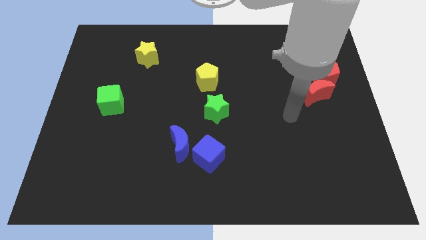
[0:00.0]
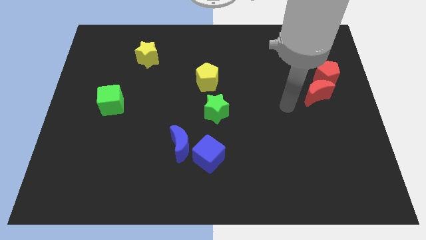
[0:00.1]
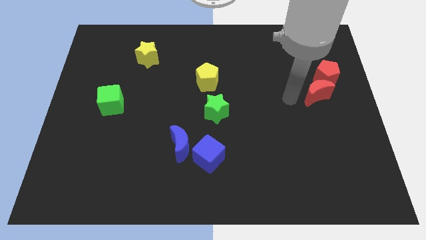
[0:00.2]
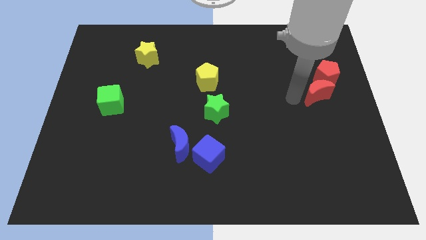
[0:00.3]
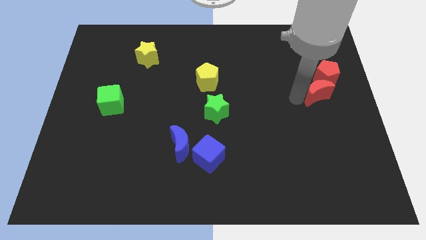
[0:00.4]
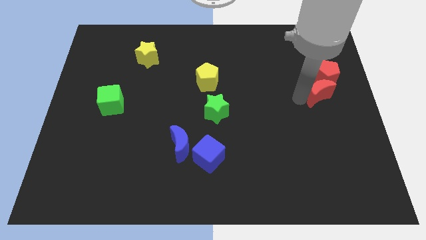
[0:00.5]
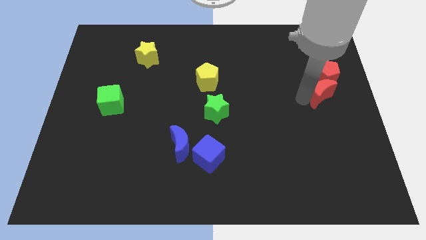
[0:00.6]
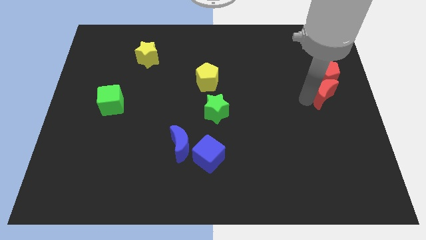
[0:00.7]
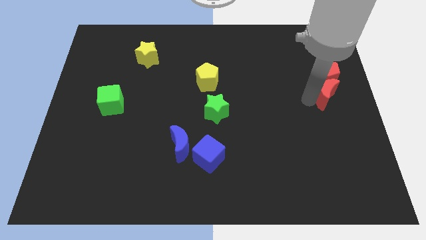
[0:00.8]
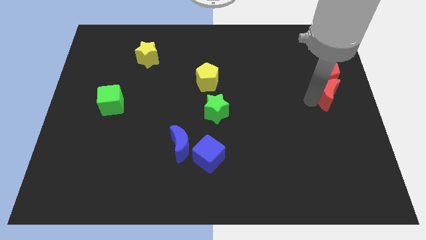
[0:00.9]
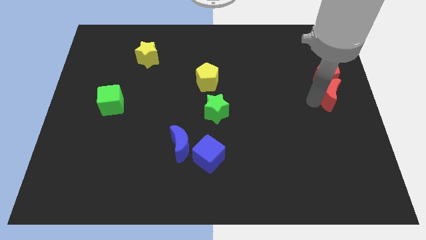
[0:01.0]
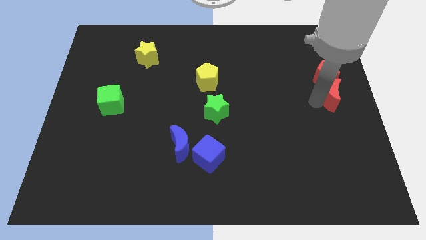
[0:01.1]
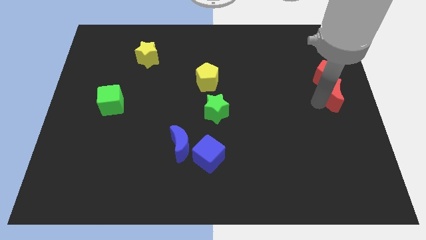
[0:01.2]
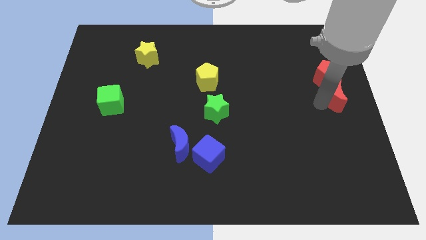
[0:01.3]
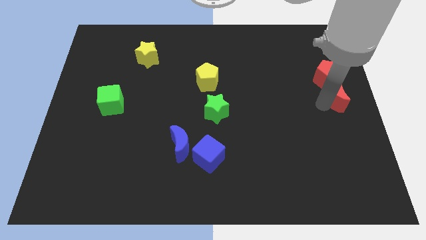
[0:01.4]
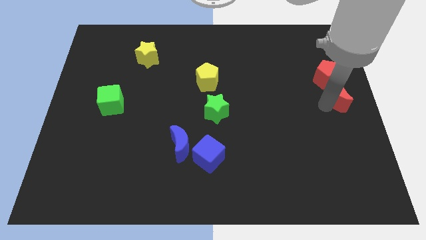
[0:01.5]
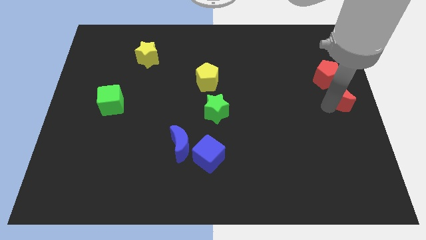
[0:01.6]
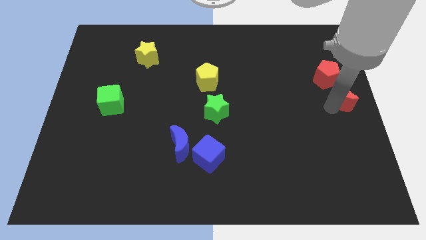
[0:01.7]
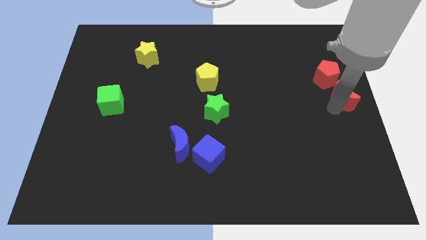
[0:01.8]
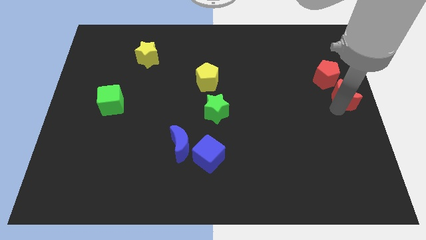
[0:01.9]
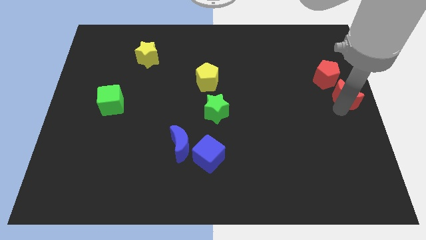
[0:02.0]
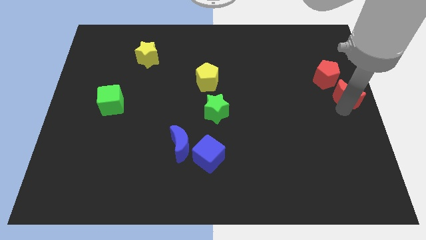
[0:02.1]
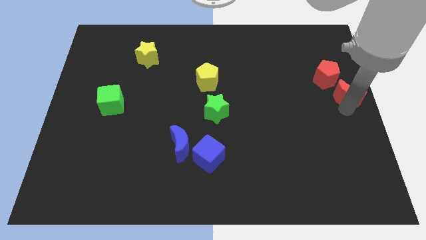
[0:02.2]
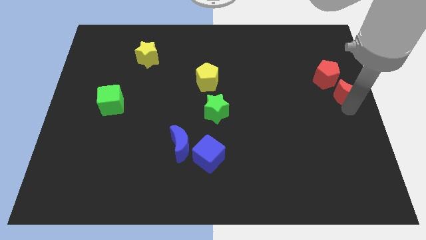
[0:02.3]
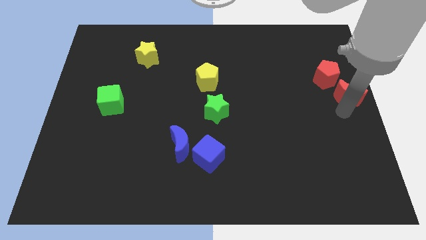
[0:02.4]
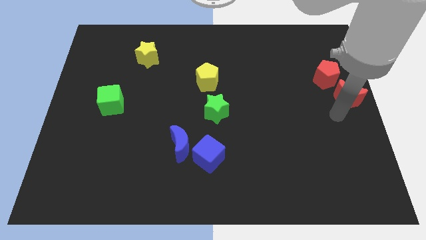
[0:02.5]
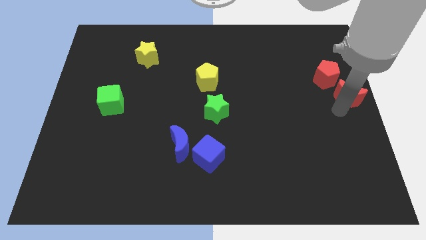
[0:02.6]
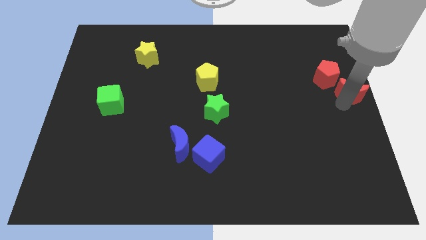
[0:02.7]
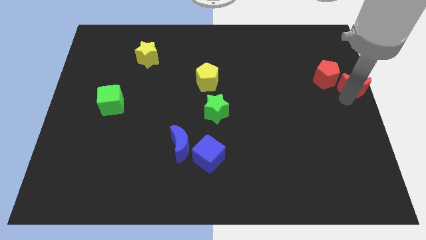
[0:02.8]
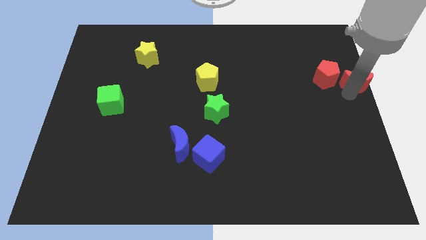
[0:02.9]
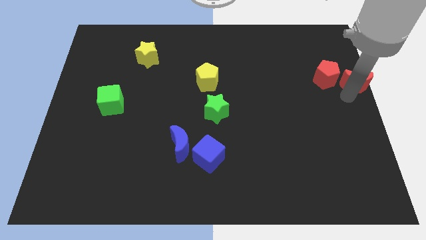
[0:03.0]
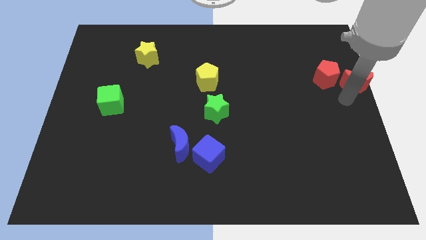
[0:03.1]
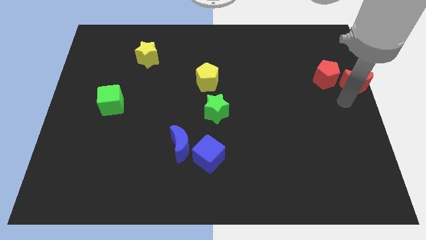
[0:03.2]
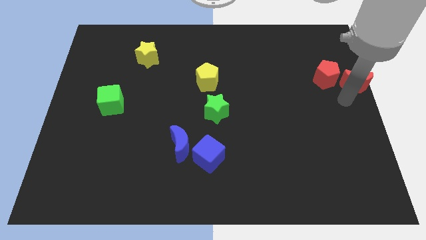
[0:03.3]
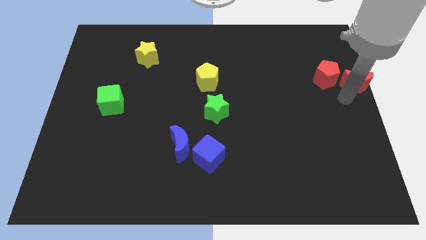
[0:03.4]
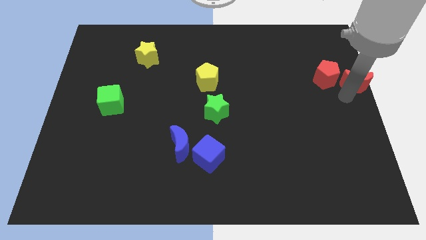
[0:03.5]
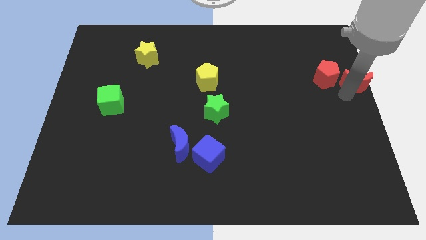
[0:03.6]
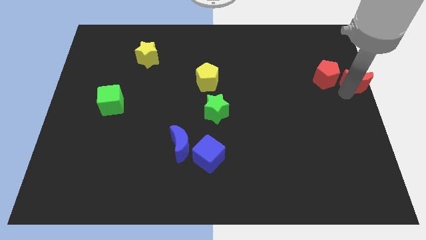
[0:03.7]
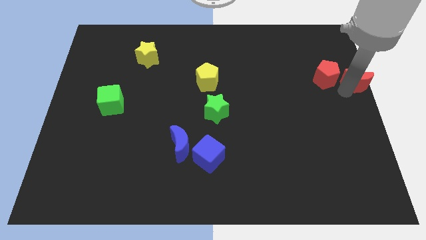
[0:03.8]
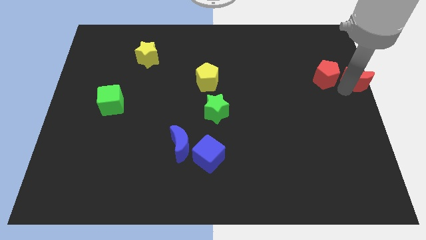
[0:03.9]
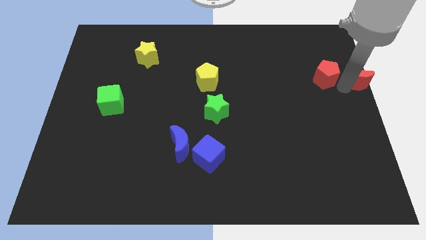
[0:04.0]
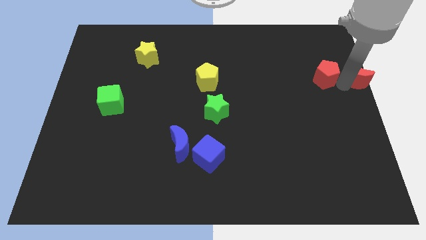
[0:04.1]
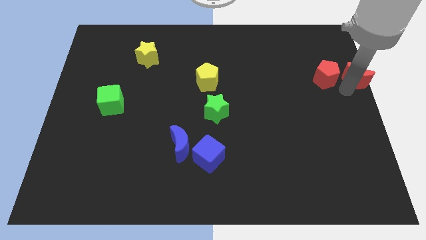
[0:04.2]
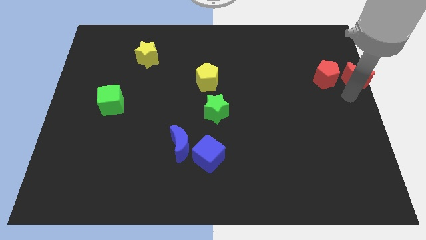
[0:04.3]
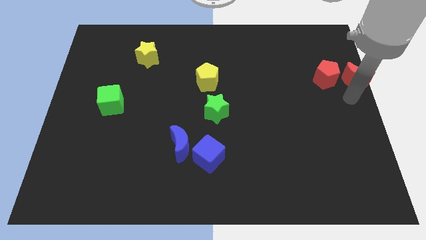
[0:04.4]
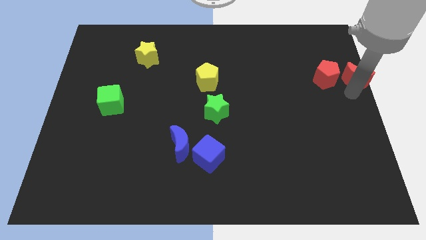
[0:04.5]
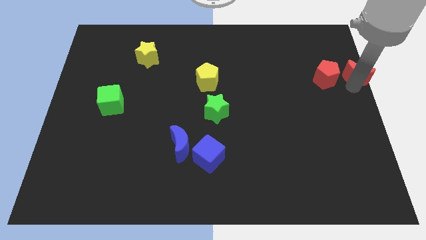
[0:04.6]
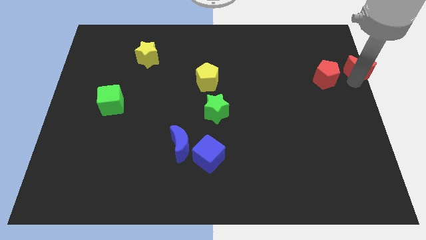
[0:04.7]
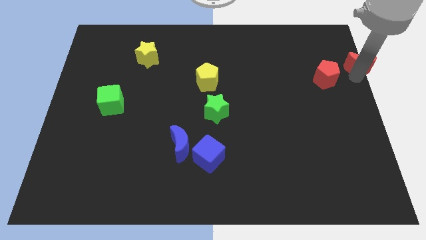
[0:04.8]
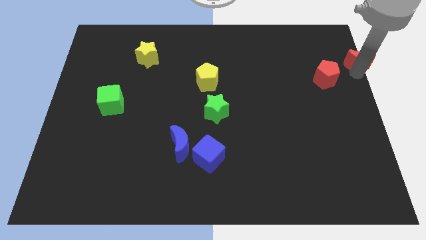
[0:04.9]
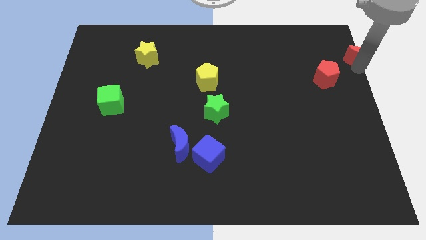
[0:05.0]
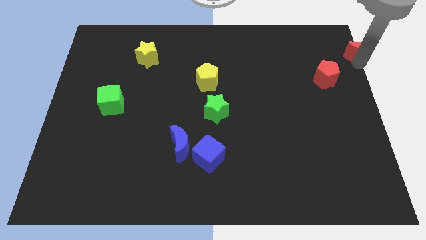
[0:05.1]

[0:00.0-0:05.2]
slide the red moon to the upper right corner

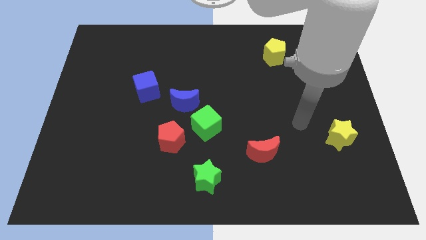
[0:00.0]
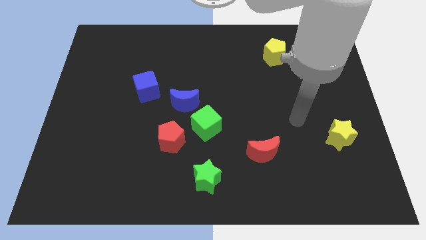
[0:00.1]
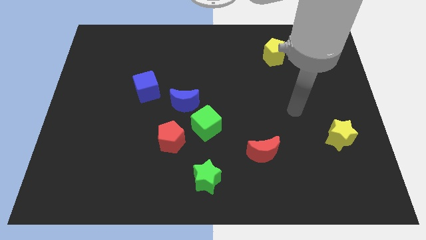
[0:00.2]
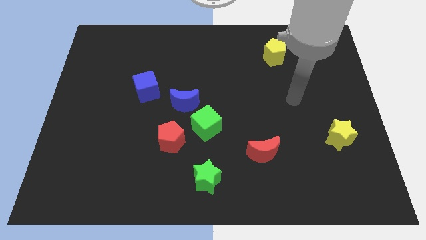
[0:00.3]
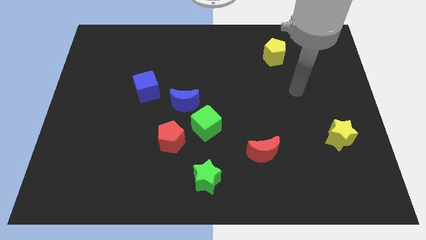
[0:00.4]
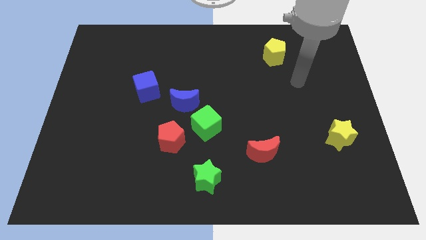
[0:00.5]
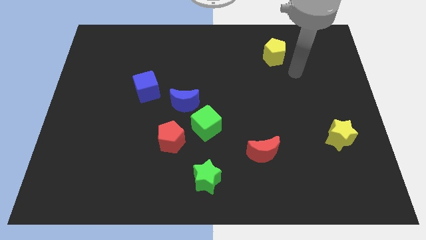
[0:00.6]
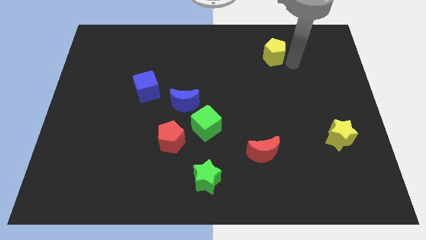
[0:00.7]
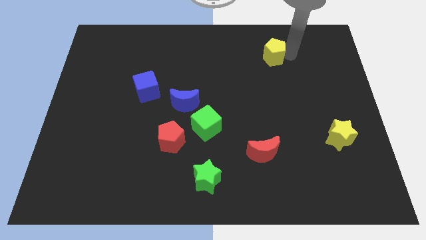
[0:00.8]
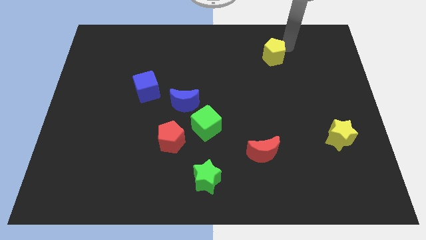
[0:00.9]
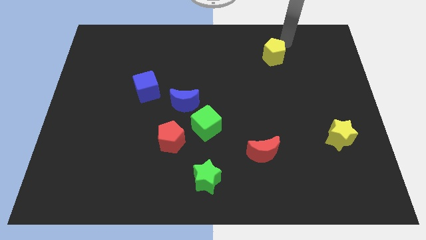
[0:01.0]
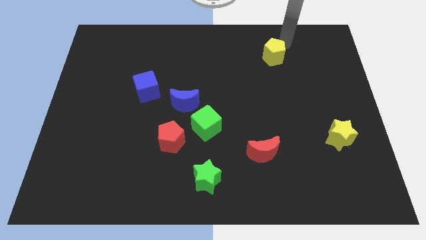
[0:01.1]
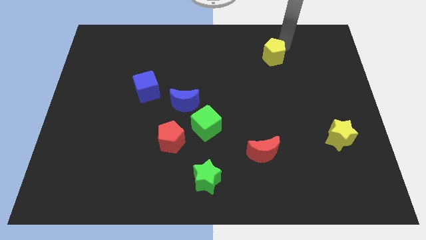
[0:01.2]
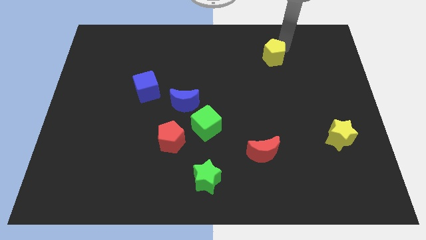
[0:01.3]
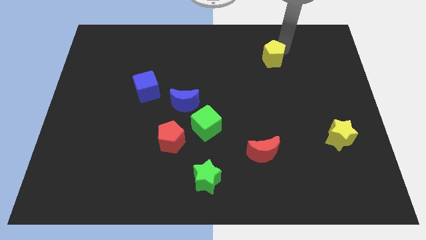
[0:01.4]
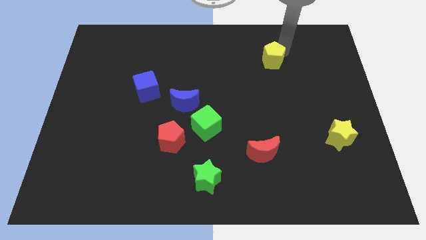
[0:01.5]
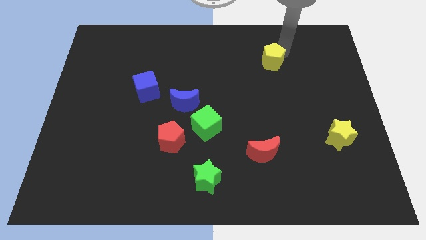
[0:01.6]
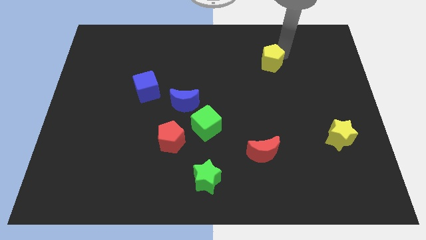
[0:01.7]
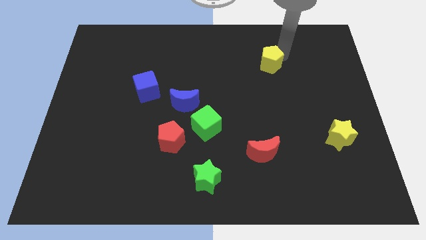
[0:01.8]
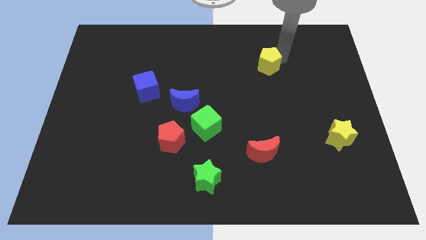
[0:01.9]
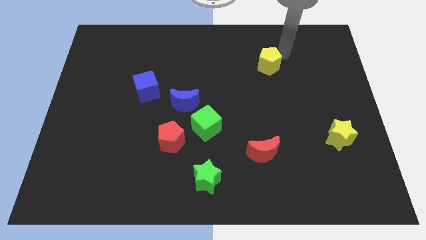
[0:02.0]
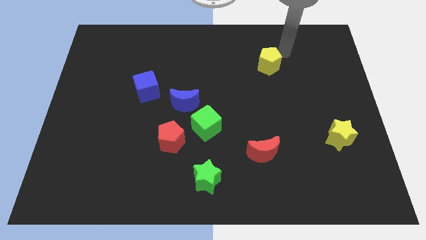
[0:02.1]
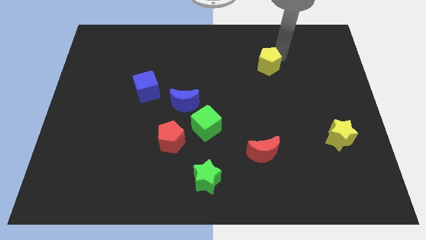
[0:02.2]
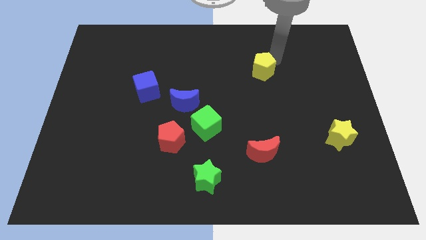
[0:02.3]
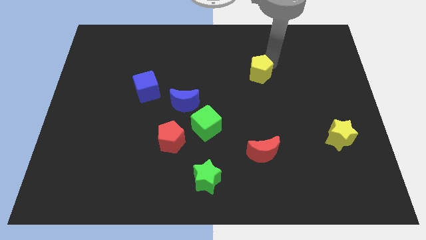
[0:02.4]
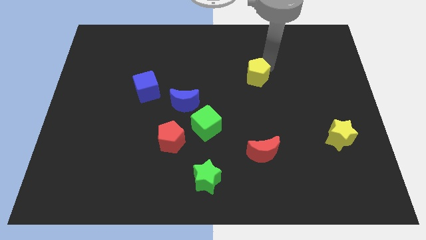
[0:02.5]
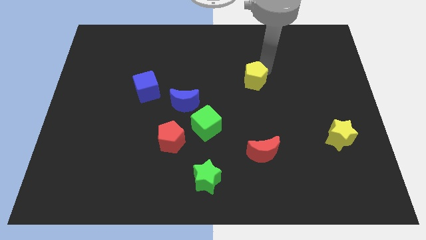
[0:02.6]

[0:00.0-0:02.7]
move the yellow pentagon to the middle of the board
